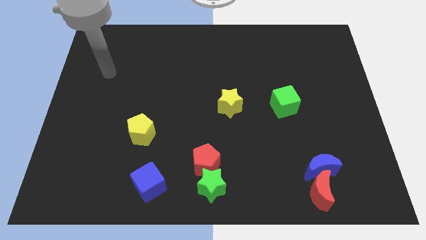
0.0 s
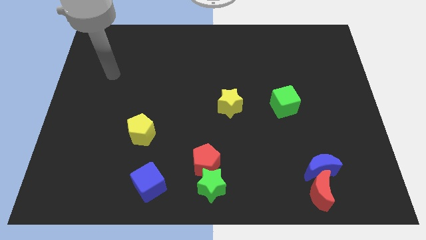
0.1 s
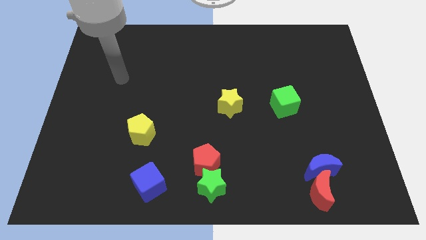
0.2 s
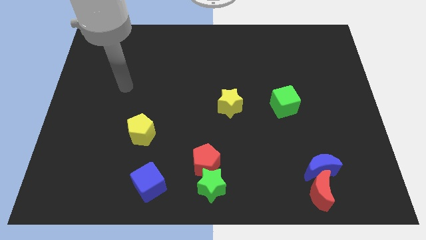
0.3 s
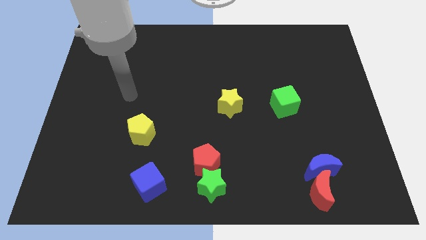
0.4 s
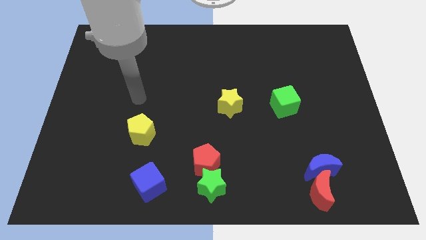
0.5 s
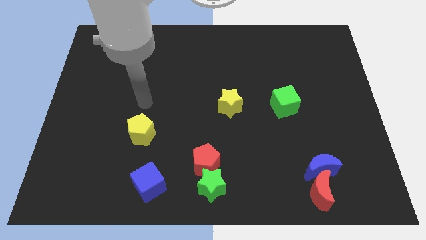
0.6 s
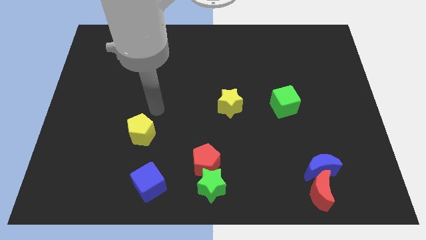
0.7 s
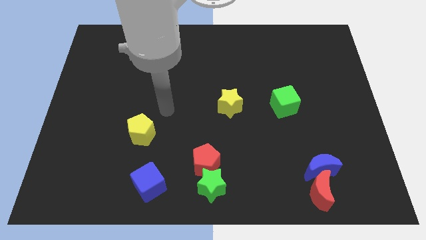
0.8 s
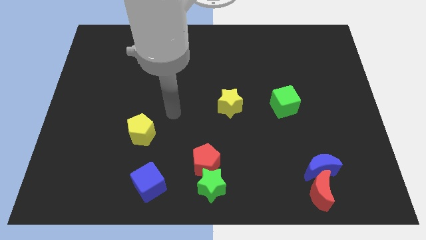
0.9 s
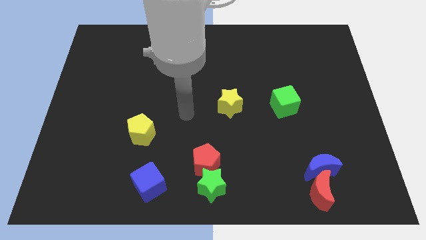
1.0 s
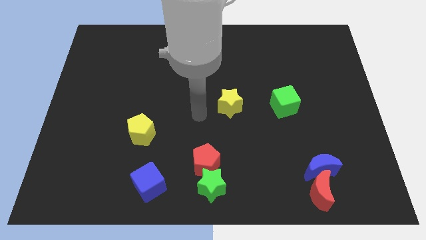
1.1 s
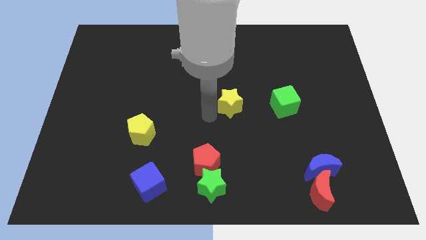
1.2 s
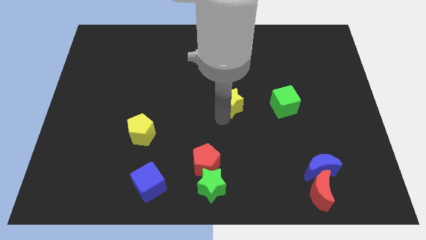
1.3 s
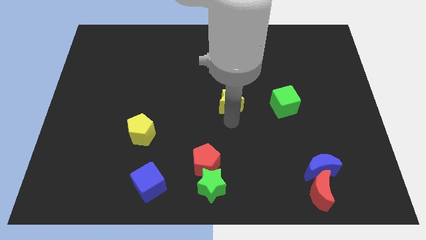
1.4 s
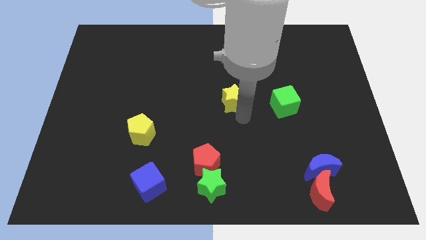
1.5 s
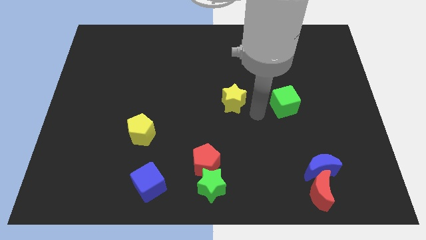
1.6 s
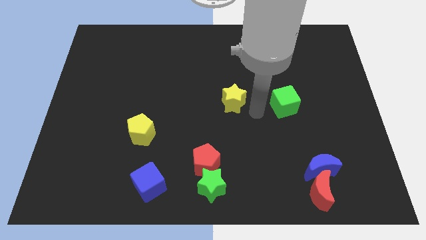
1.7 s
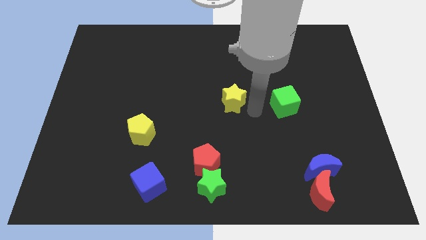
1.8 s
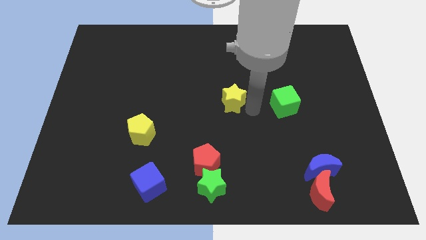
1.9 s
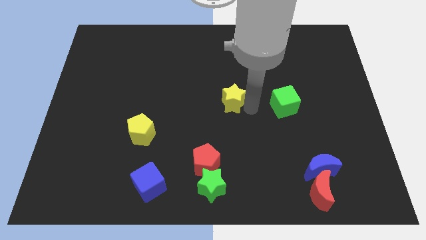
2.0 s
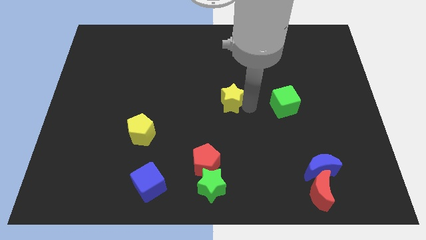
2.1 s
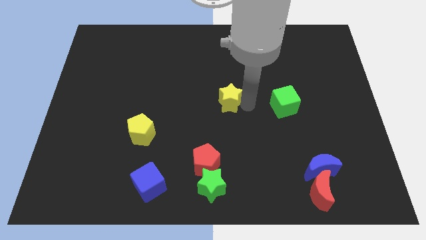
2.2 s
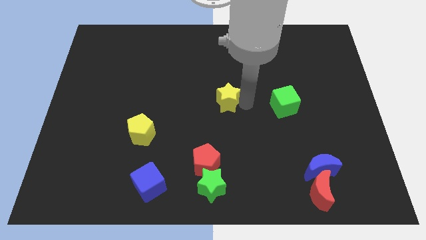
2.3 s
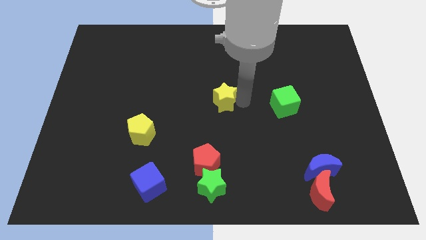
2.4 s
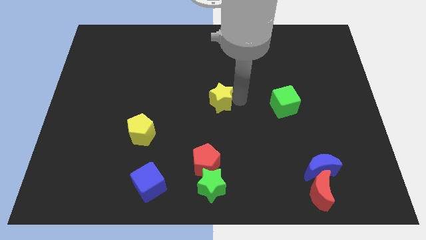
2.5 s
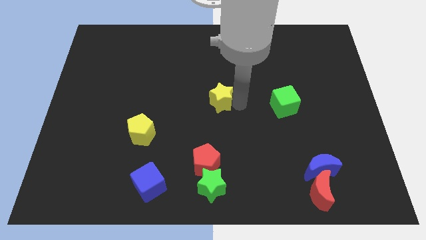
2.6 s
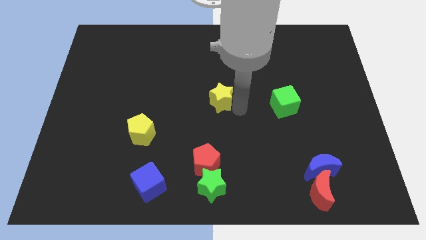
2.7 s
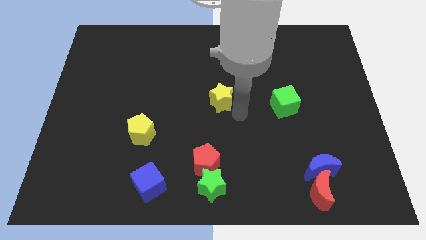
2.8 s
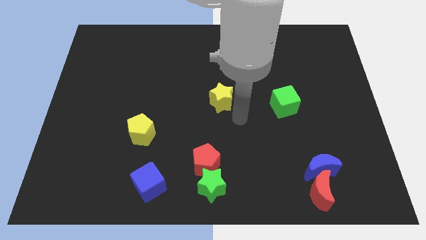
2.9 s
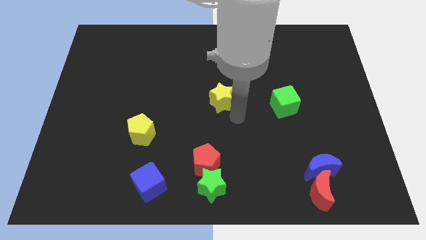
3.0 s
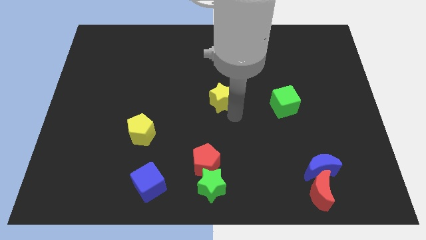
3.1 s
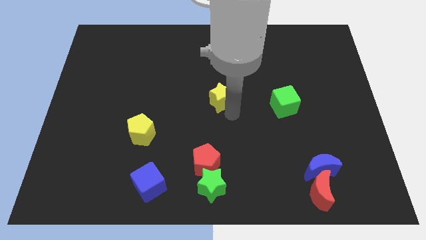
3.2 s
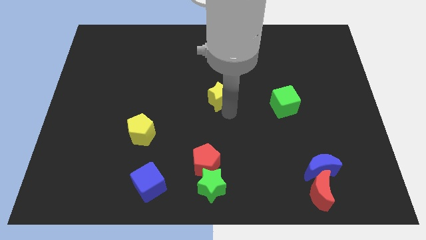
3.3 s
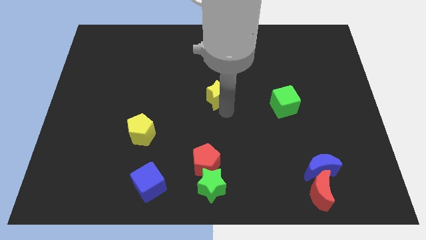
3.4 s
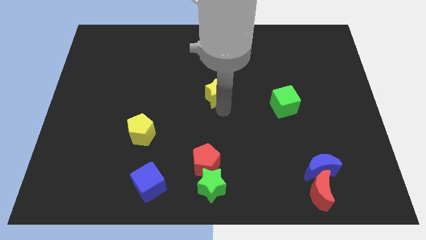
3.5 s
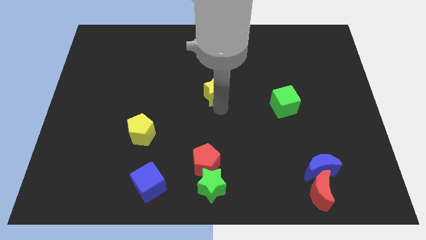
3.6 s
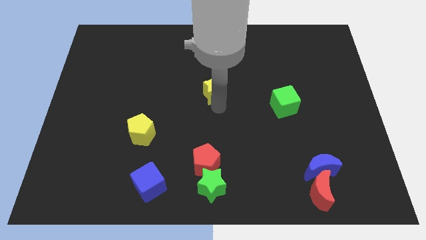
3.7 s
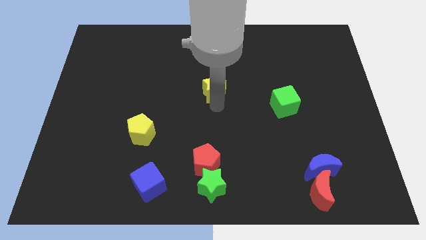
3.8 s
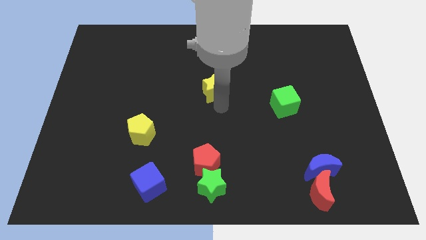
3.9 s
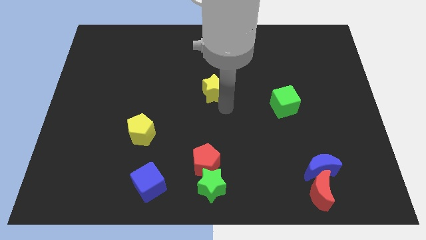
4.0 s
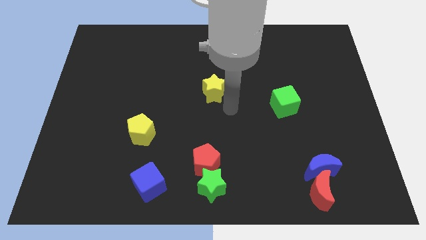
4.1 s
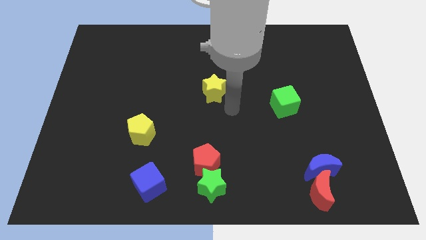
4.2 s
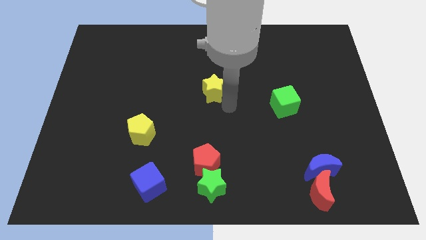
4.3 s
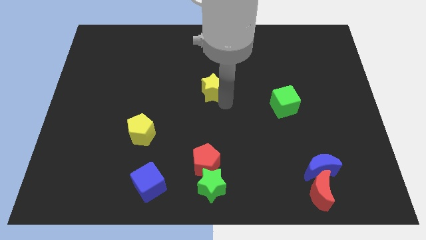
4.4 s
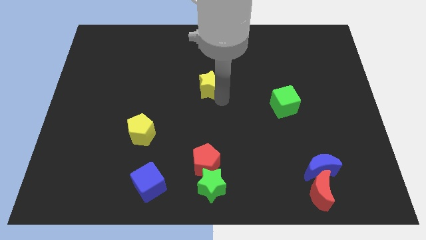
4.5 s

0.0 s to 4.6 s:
push the yellow star slightly upwards and to the left diagonally

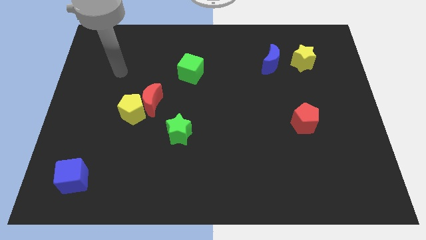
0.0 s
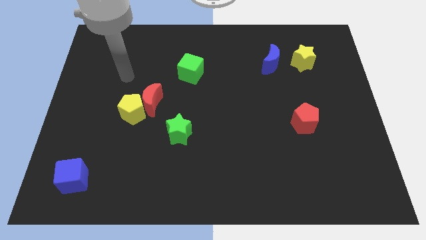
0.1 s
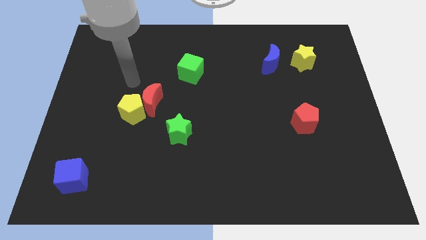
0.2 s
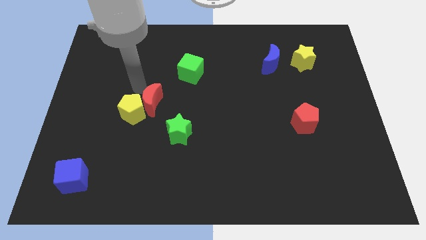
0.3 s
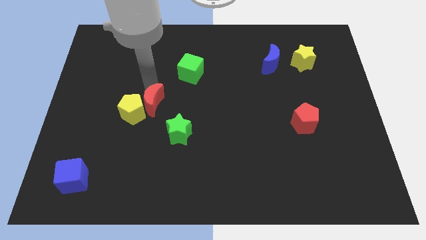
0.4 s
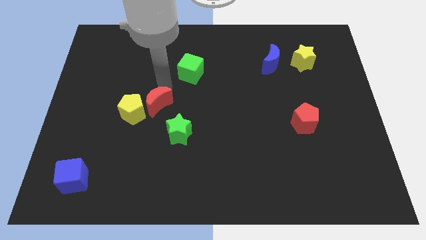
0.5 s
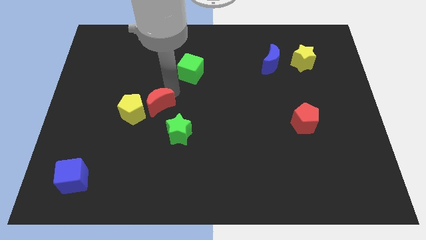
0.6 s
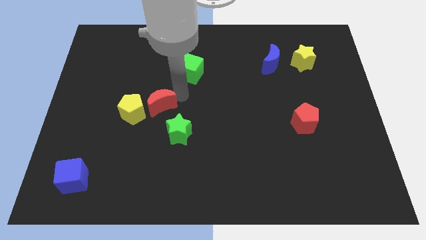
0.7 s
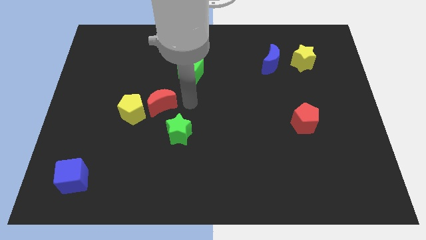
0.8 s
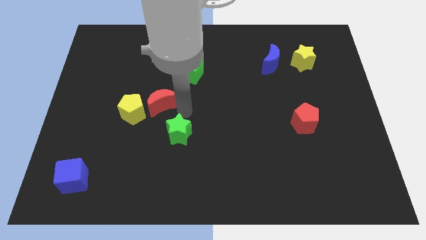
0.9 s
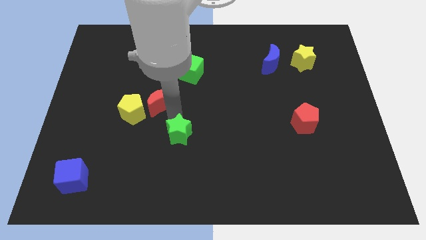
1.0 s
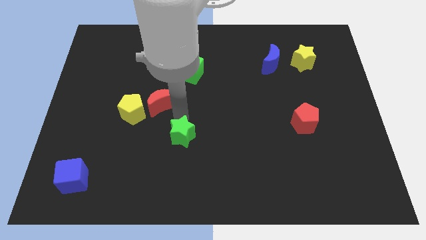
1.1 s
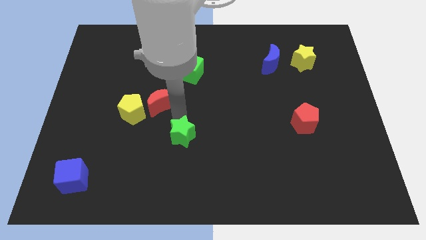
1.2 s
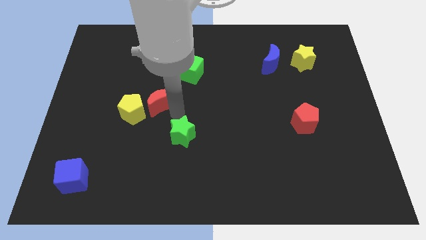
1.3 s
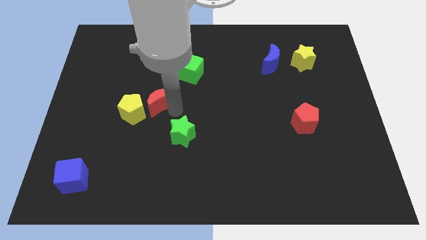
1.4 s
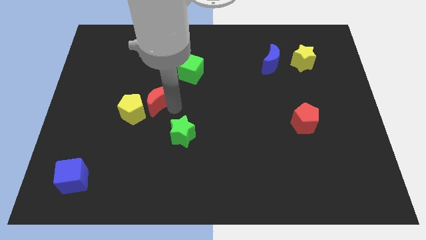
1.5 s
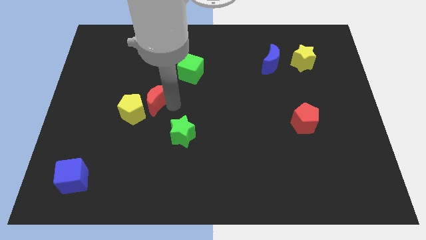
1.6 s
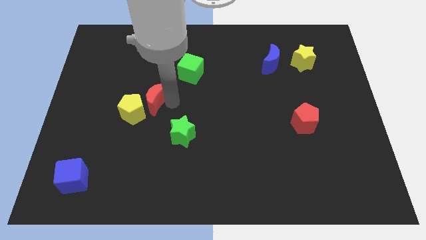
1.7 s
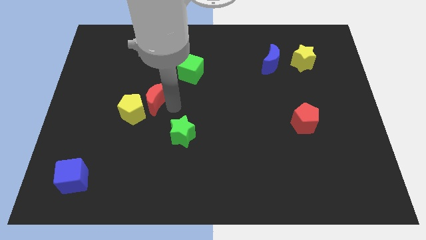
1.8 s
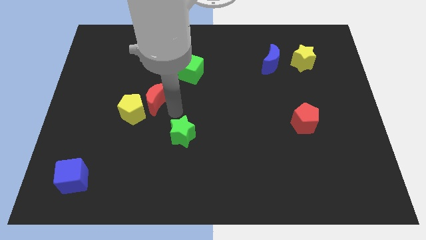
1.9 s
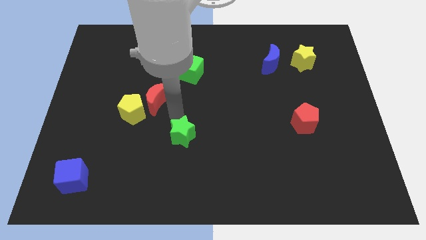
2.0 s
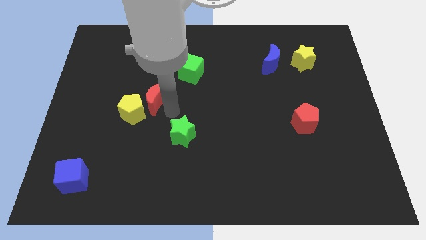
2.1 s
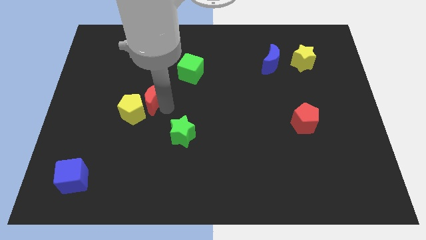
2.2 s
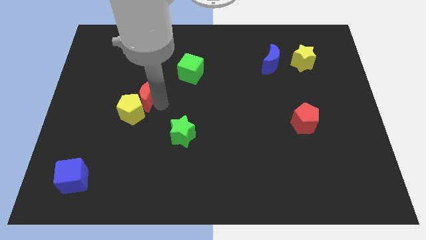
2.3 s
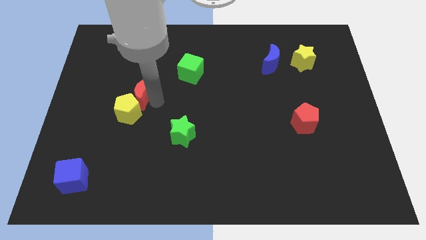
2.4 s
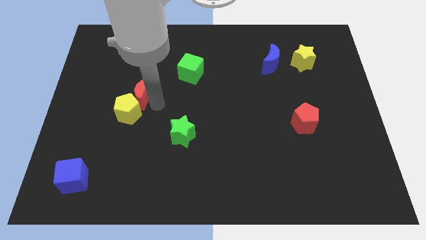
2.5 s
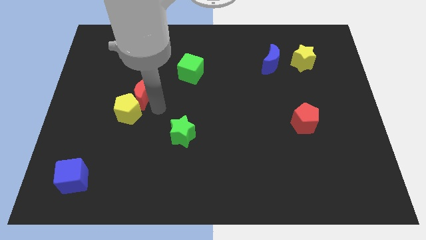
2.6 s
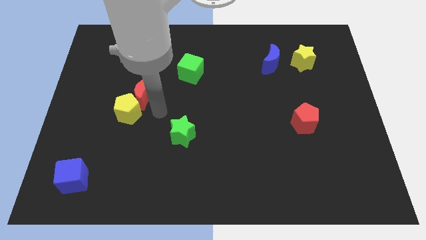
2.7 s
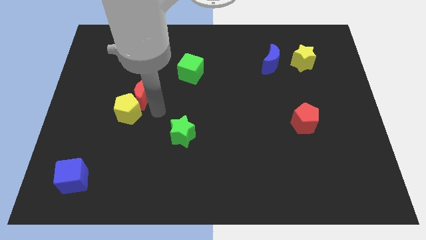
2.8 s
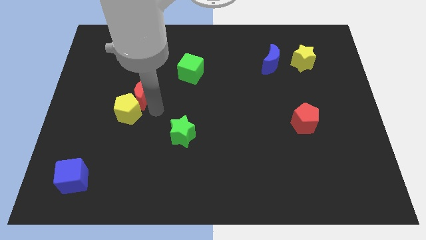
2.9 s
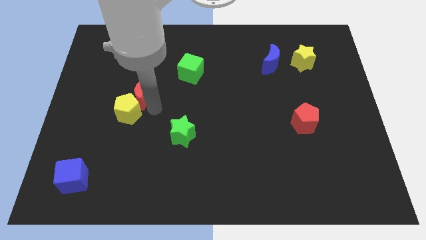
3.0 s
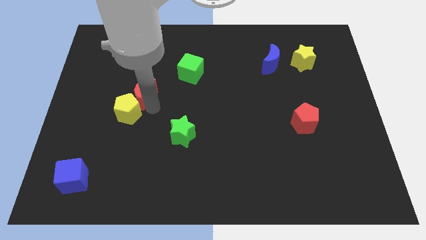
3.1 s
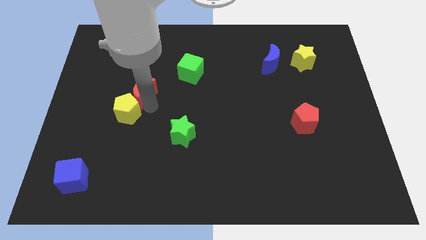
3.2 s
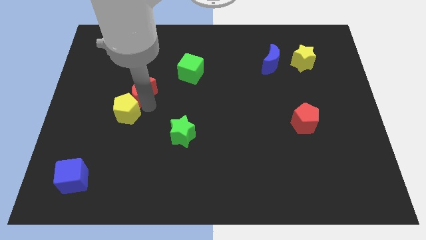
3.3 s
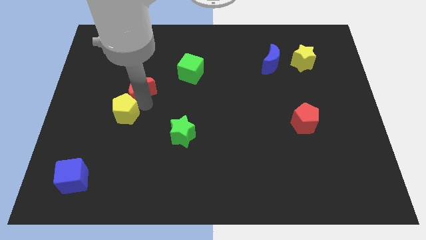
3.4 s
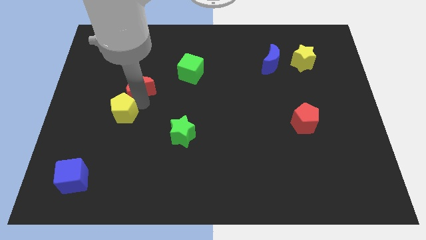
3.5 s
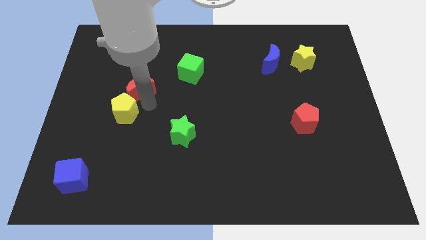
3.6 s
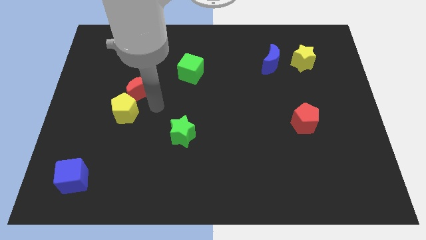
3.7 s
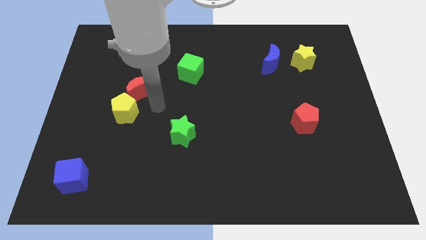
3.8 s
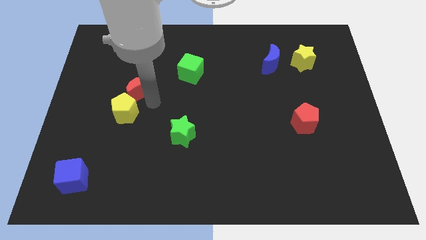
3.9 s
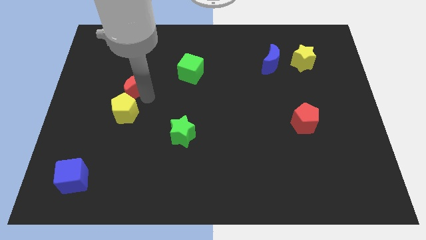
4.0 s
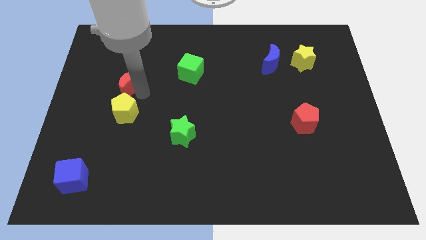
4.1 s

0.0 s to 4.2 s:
move the red moon a little bit upwards and to the left diagonally

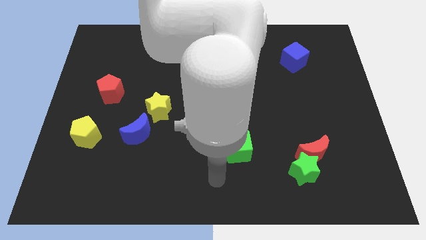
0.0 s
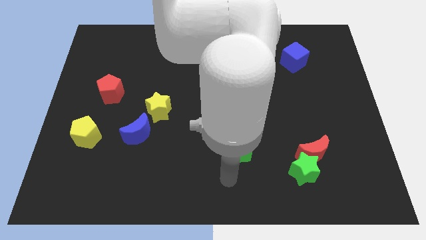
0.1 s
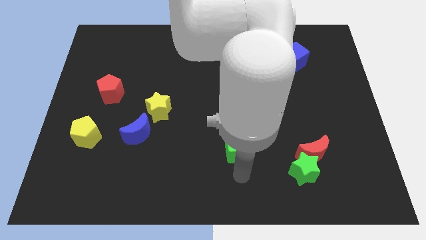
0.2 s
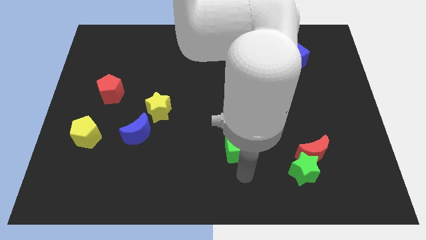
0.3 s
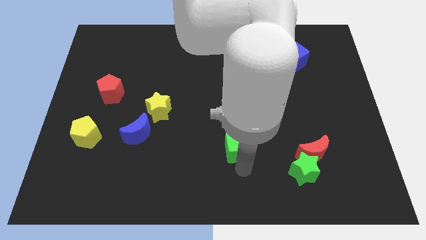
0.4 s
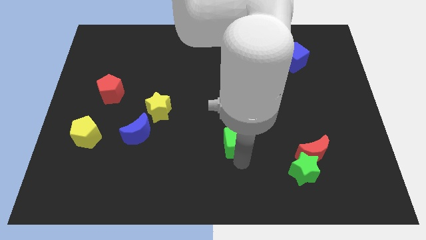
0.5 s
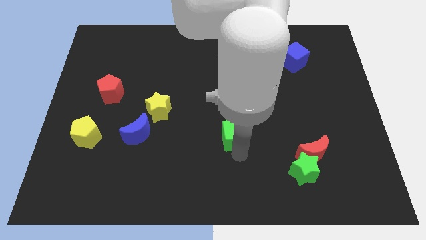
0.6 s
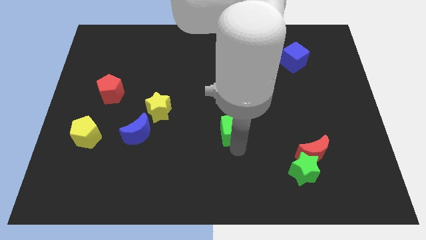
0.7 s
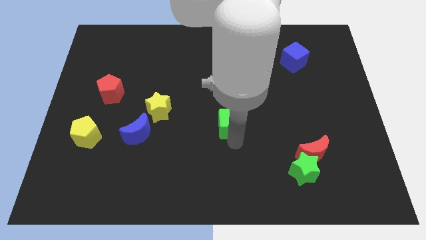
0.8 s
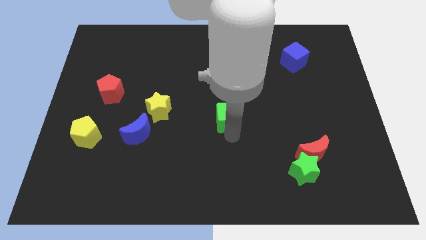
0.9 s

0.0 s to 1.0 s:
move the green cube upwards a bit
